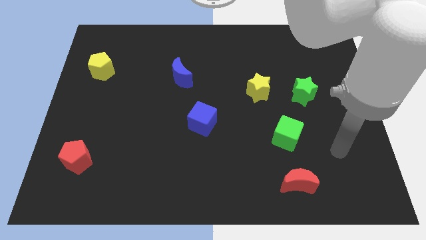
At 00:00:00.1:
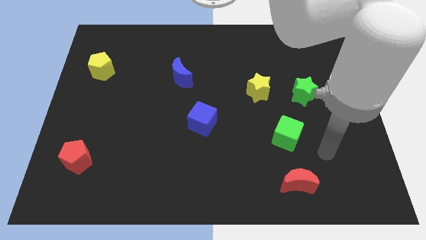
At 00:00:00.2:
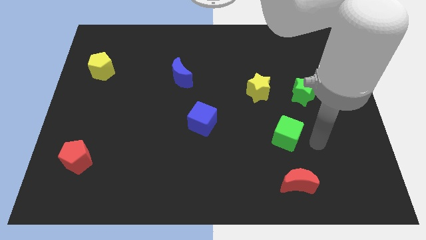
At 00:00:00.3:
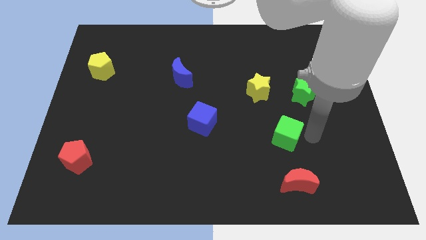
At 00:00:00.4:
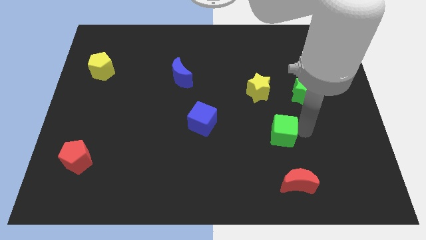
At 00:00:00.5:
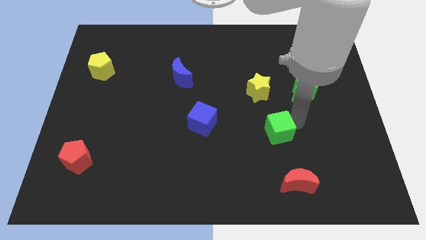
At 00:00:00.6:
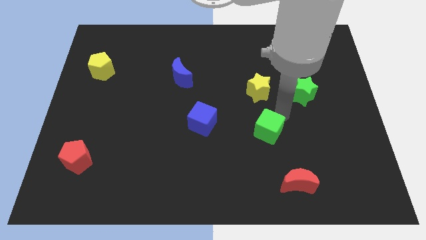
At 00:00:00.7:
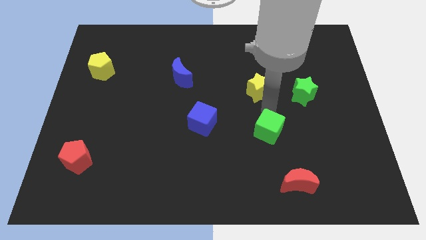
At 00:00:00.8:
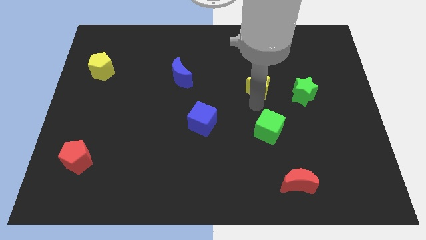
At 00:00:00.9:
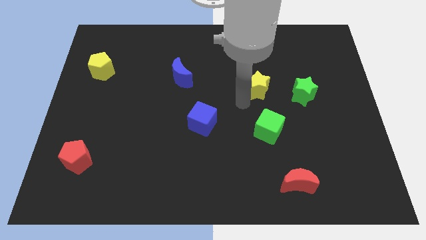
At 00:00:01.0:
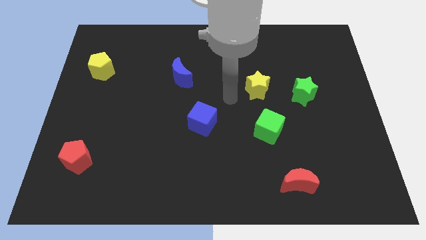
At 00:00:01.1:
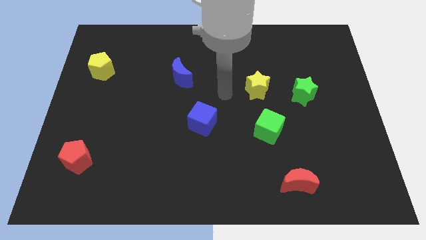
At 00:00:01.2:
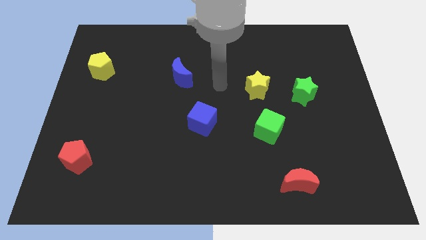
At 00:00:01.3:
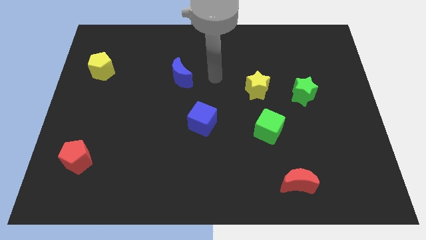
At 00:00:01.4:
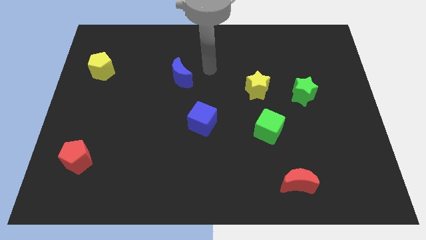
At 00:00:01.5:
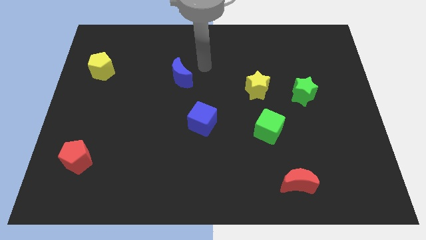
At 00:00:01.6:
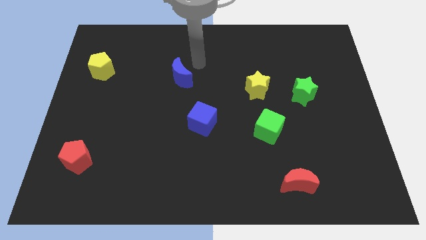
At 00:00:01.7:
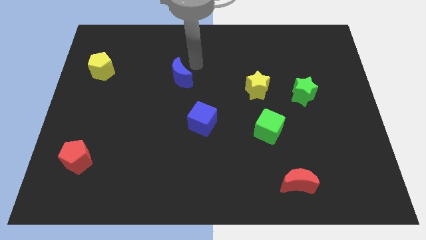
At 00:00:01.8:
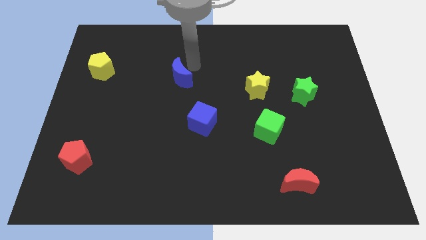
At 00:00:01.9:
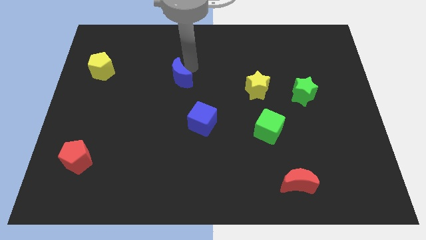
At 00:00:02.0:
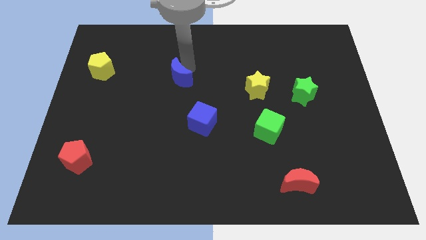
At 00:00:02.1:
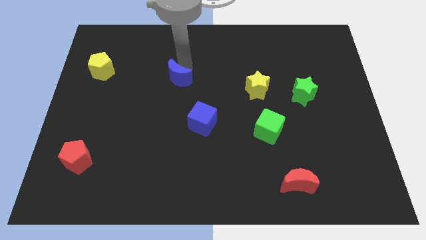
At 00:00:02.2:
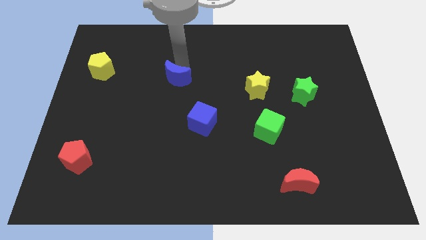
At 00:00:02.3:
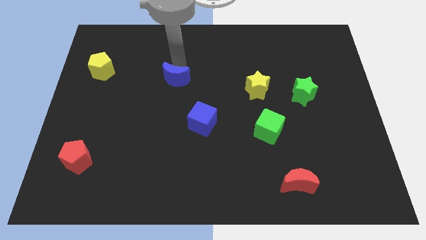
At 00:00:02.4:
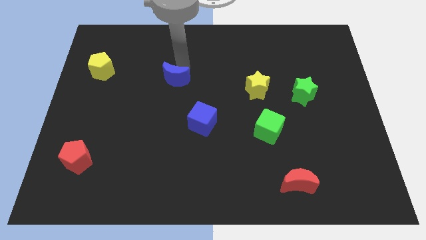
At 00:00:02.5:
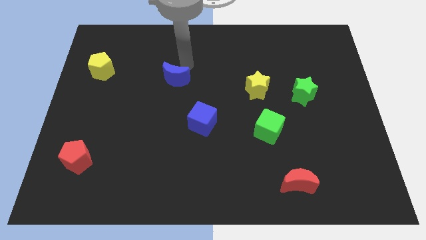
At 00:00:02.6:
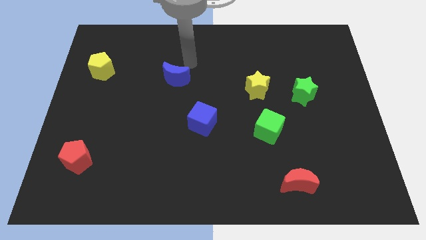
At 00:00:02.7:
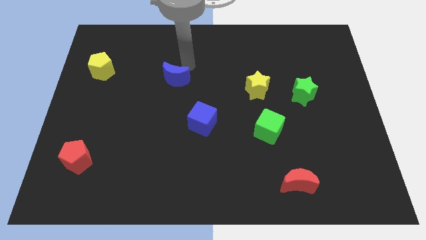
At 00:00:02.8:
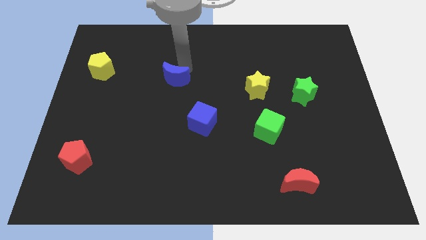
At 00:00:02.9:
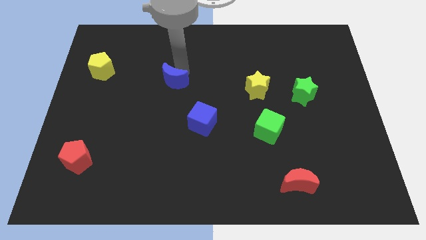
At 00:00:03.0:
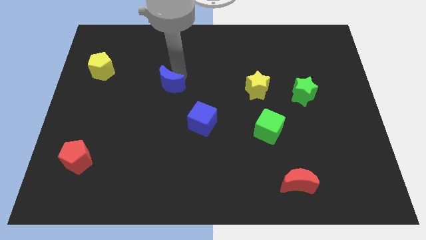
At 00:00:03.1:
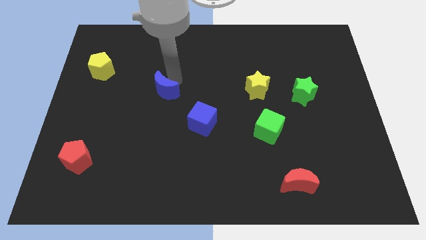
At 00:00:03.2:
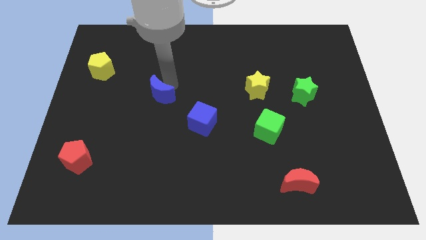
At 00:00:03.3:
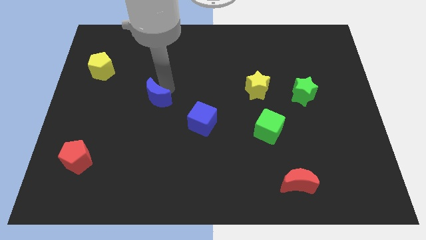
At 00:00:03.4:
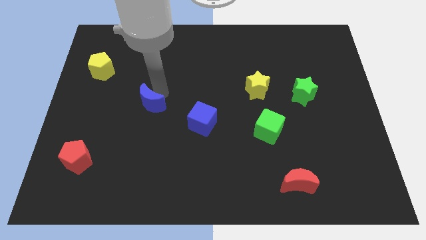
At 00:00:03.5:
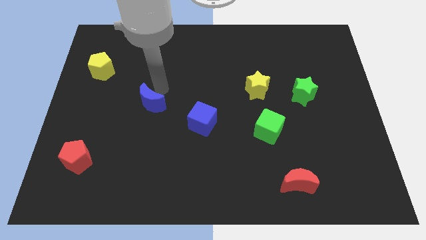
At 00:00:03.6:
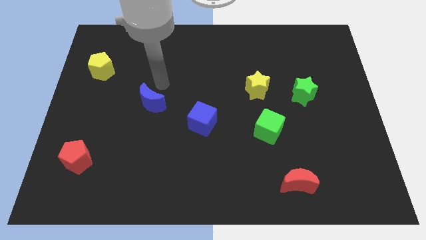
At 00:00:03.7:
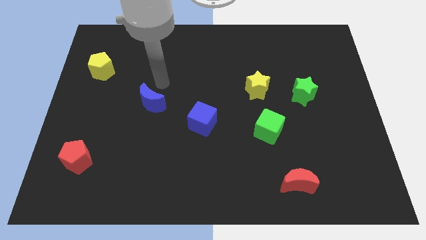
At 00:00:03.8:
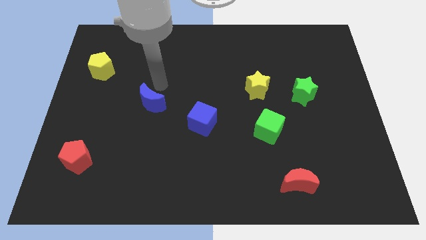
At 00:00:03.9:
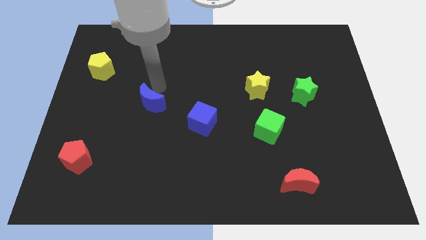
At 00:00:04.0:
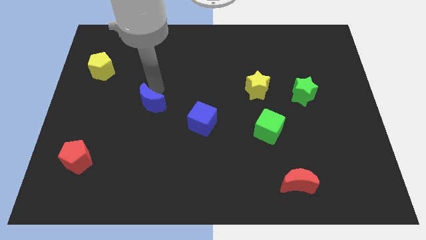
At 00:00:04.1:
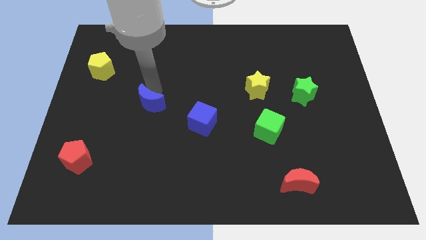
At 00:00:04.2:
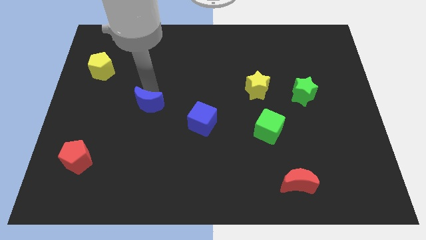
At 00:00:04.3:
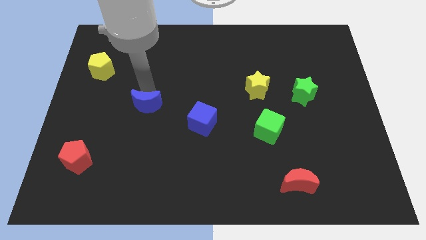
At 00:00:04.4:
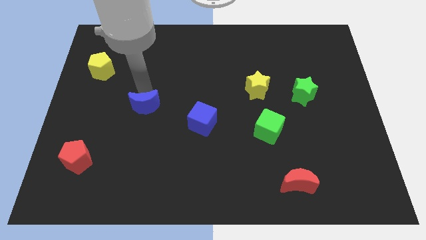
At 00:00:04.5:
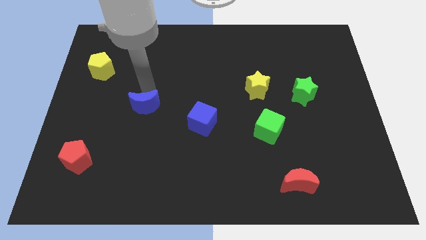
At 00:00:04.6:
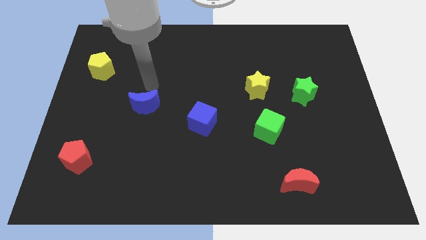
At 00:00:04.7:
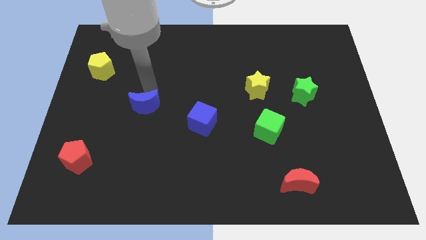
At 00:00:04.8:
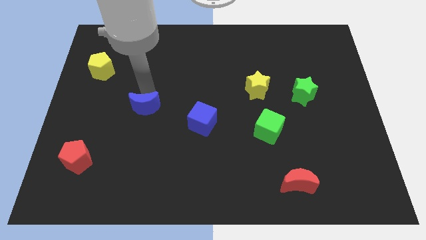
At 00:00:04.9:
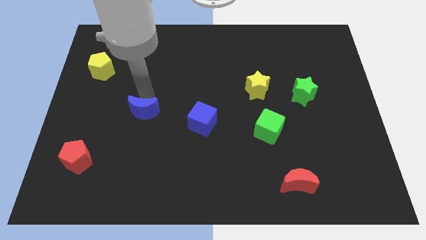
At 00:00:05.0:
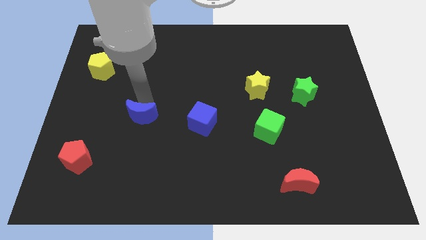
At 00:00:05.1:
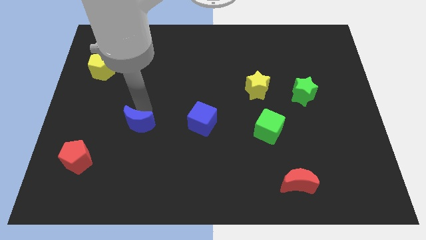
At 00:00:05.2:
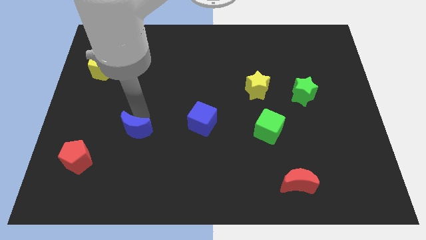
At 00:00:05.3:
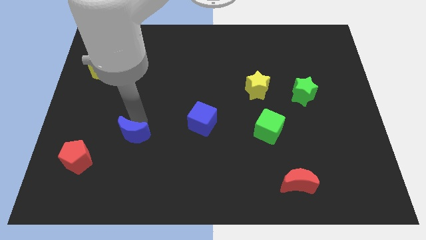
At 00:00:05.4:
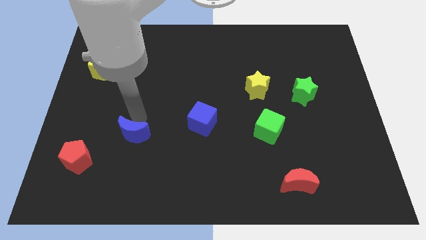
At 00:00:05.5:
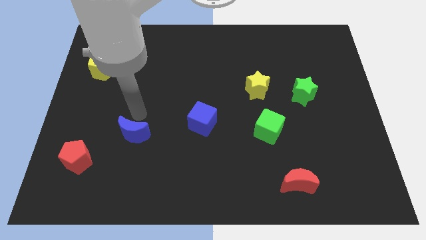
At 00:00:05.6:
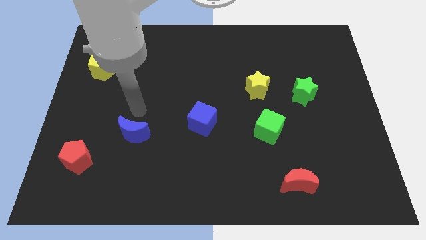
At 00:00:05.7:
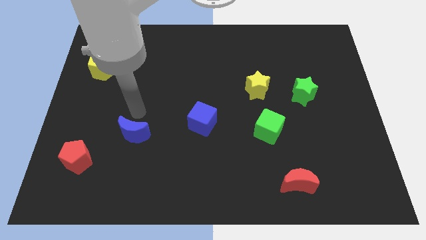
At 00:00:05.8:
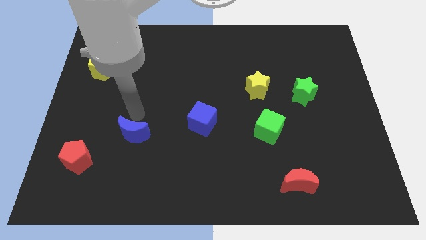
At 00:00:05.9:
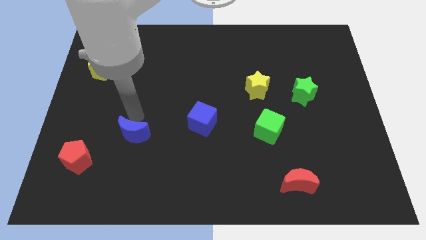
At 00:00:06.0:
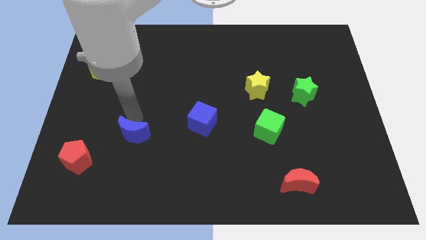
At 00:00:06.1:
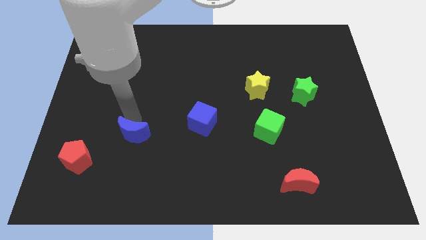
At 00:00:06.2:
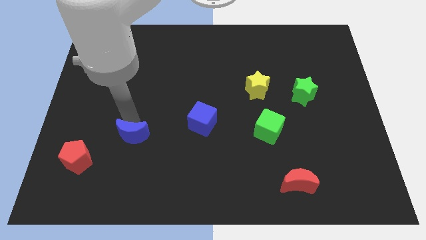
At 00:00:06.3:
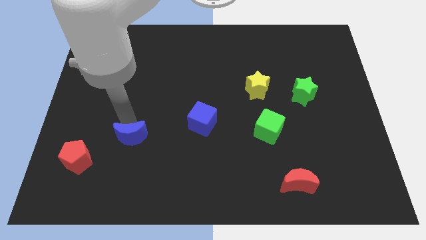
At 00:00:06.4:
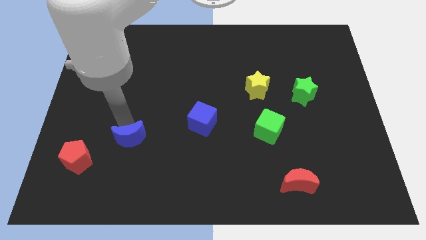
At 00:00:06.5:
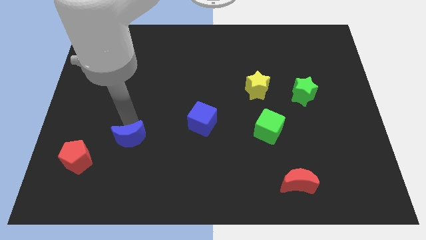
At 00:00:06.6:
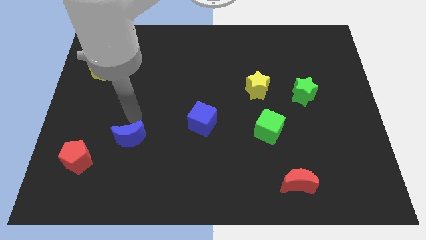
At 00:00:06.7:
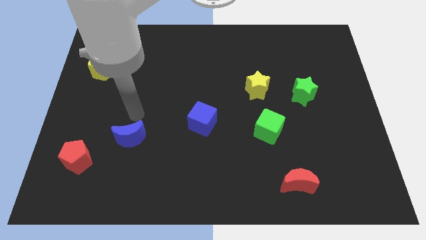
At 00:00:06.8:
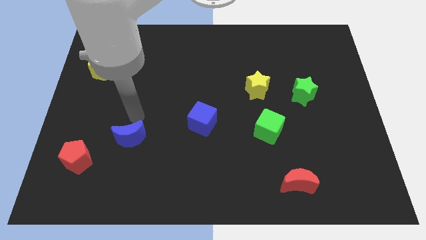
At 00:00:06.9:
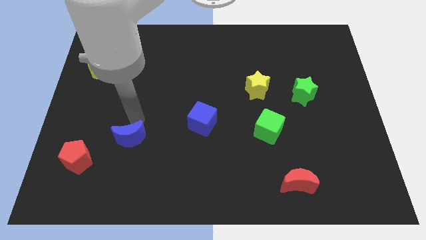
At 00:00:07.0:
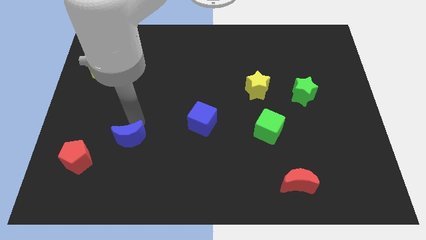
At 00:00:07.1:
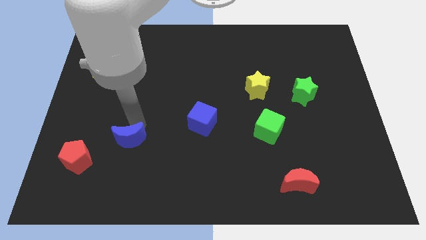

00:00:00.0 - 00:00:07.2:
move the blue moon to the right side of the red pentagon

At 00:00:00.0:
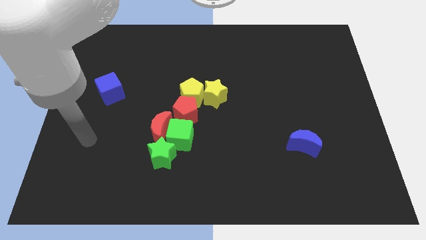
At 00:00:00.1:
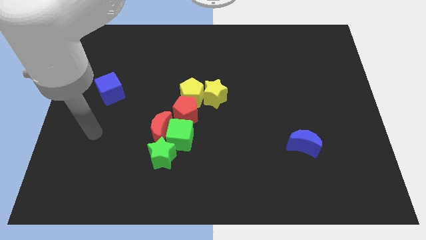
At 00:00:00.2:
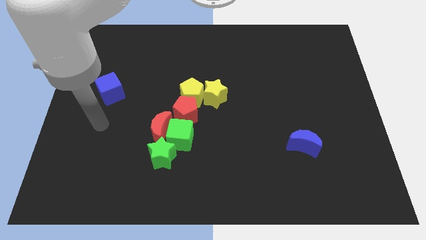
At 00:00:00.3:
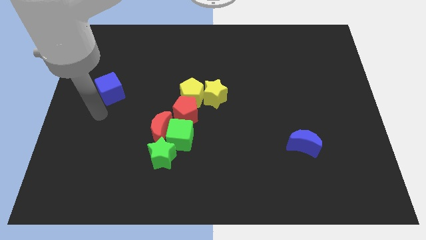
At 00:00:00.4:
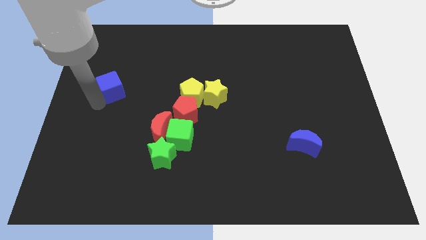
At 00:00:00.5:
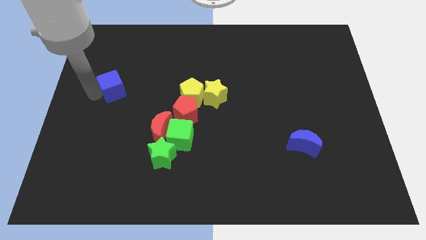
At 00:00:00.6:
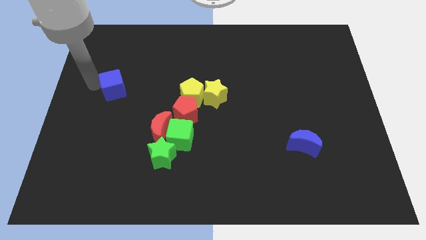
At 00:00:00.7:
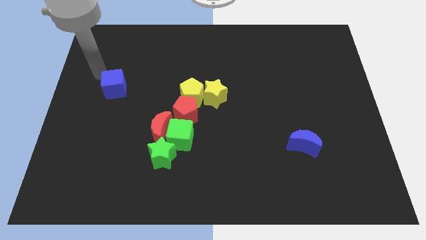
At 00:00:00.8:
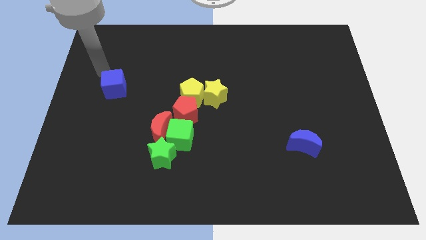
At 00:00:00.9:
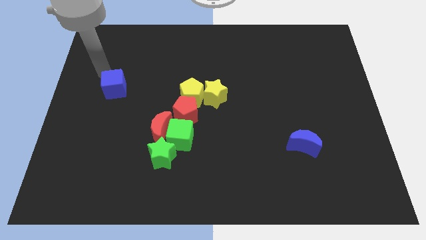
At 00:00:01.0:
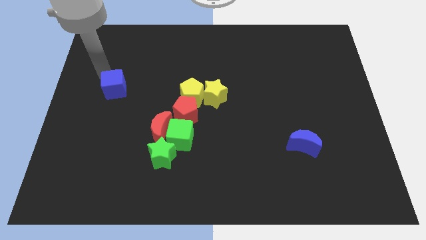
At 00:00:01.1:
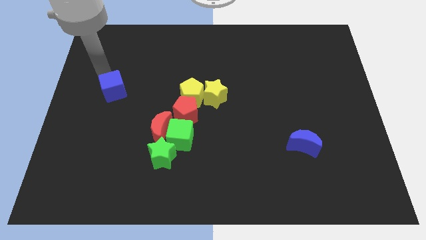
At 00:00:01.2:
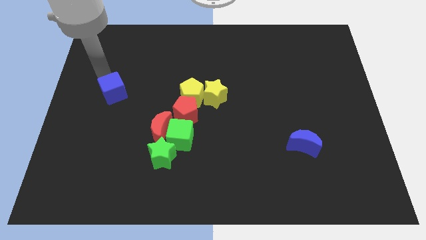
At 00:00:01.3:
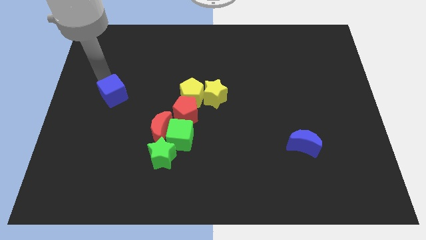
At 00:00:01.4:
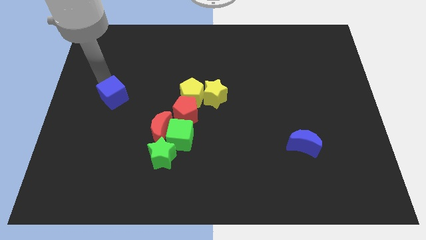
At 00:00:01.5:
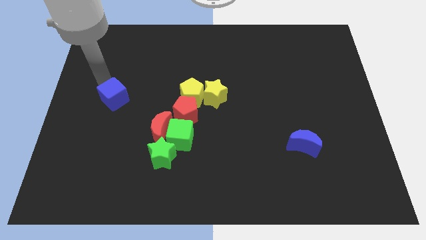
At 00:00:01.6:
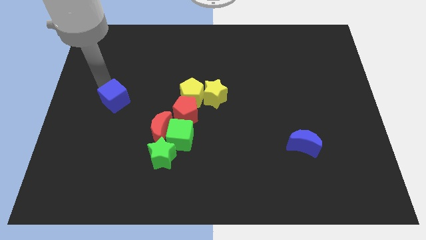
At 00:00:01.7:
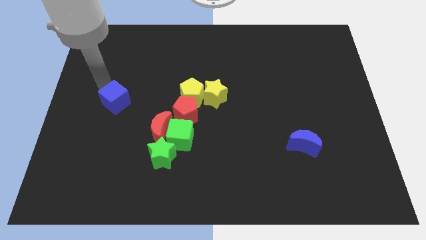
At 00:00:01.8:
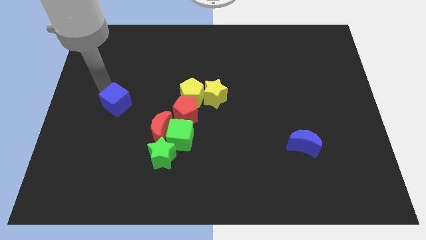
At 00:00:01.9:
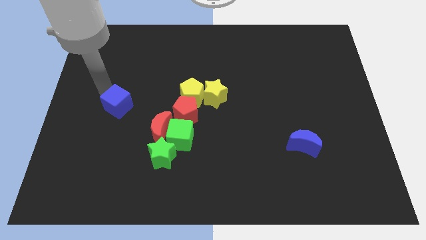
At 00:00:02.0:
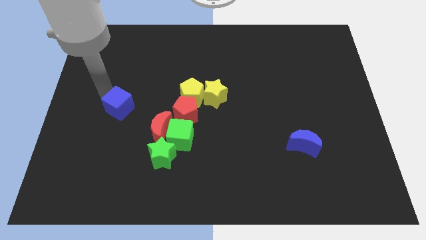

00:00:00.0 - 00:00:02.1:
push the blue cube to the top left of the red moon
